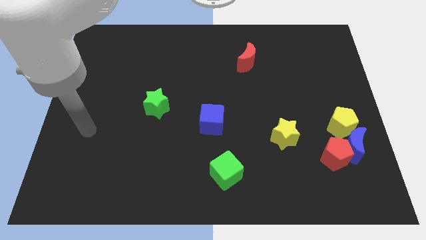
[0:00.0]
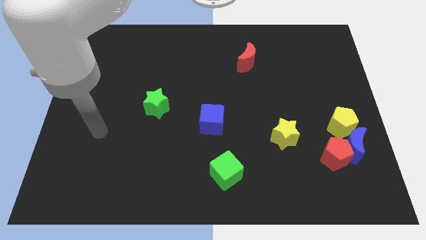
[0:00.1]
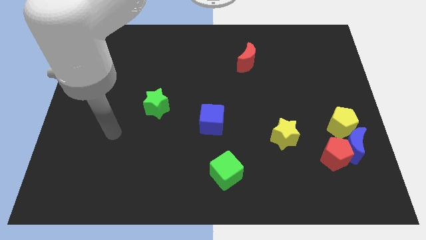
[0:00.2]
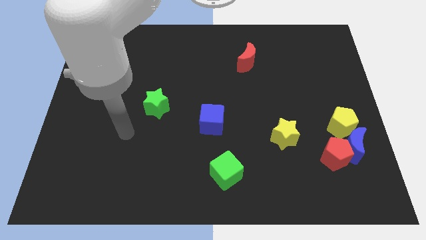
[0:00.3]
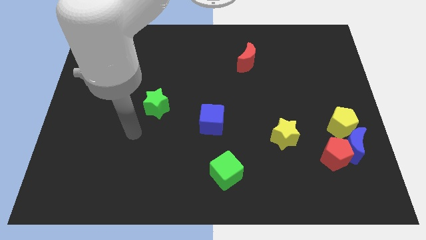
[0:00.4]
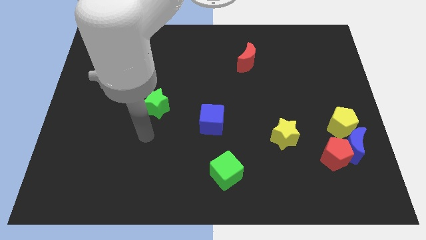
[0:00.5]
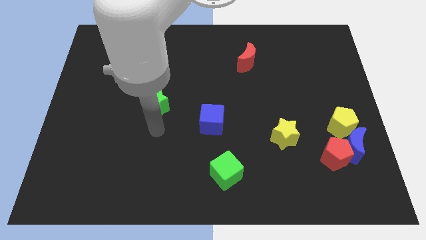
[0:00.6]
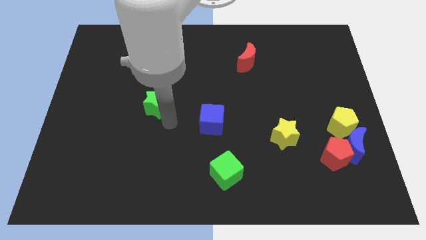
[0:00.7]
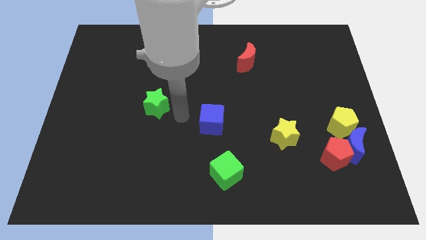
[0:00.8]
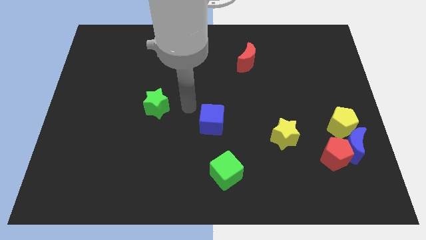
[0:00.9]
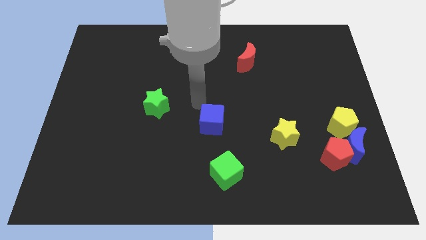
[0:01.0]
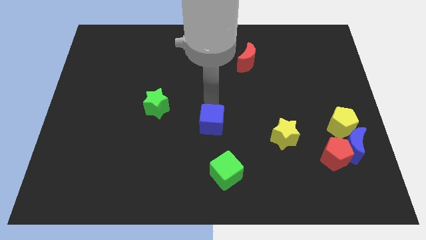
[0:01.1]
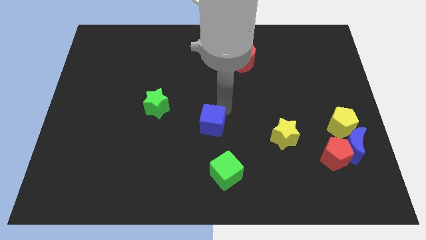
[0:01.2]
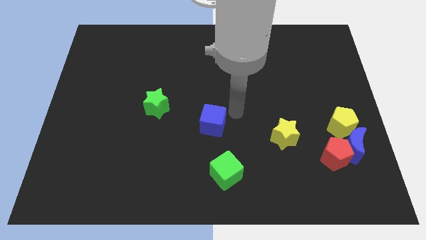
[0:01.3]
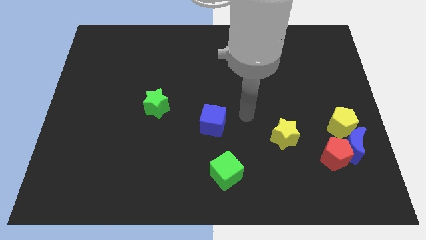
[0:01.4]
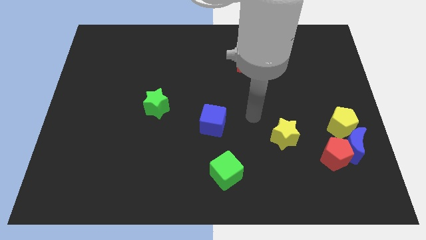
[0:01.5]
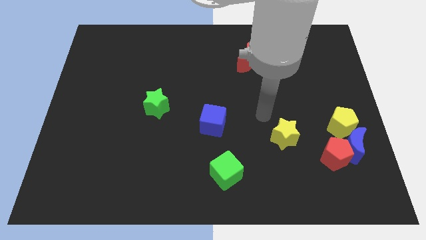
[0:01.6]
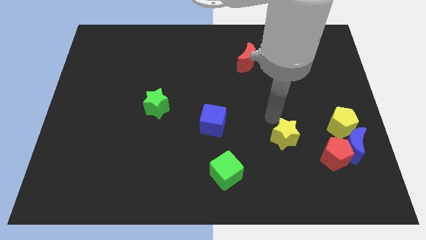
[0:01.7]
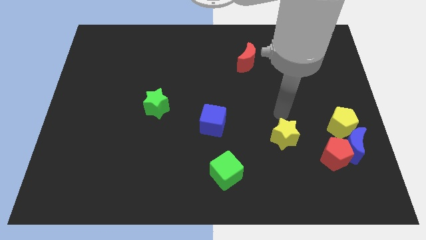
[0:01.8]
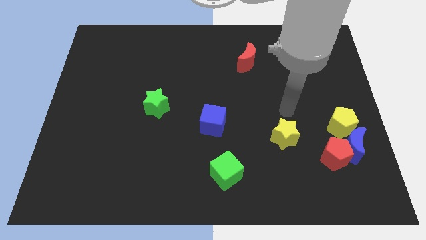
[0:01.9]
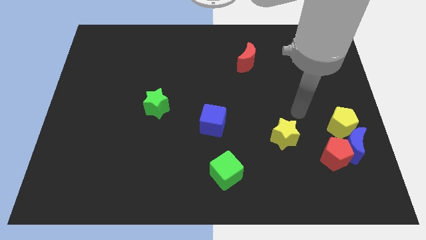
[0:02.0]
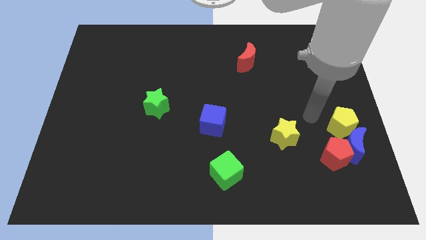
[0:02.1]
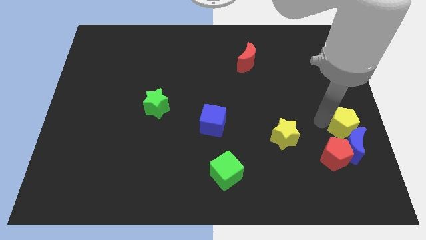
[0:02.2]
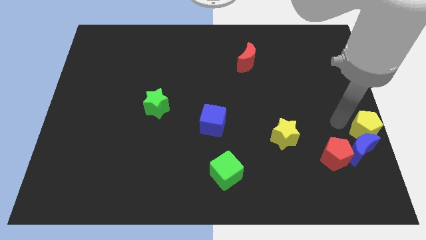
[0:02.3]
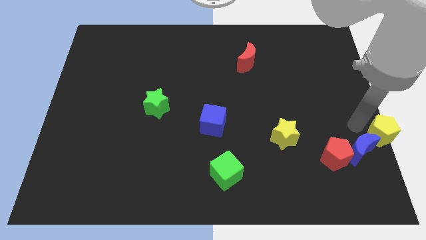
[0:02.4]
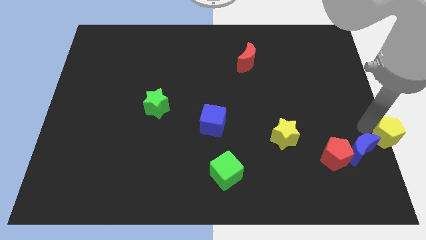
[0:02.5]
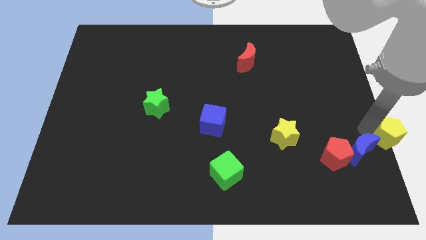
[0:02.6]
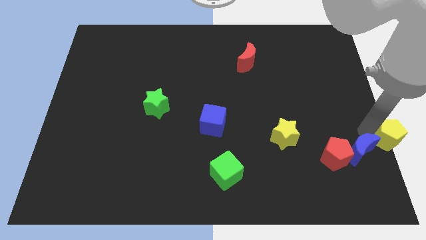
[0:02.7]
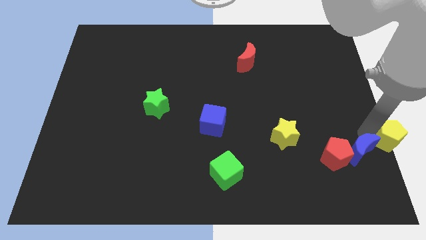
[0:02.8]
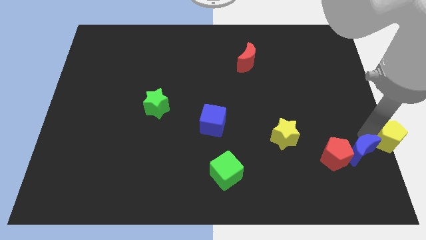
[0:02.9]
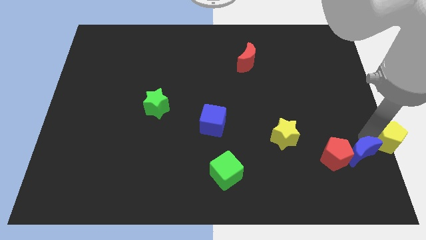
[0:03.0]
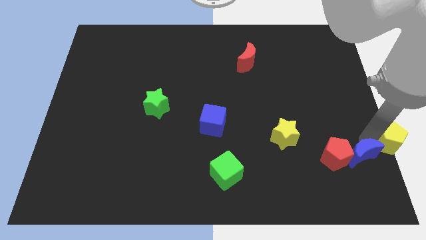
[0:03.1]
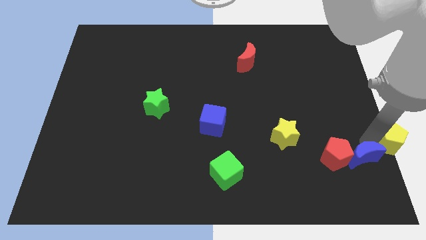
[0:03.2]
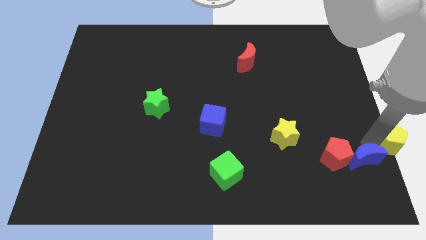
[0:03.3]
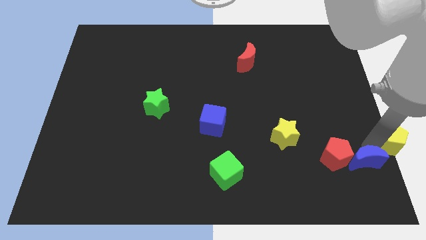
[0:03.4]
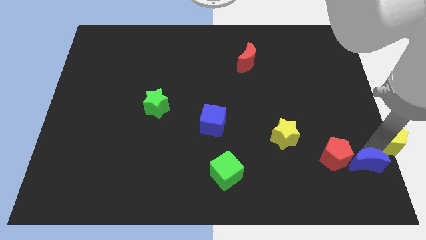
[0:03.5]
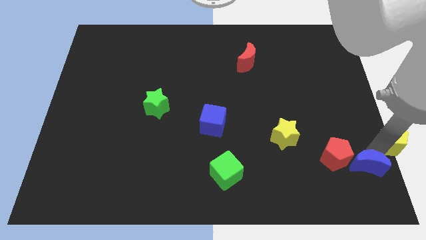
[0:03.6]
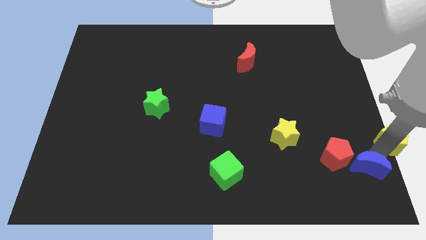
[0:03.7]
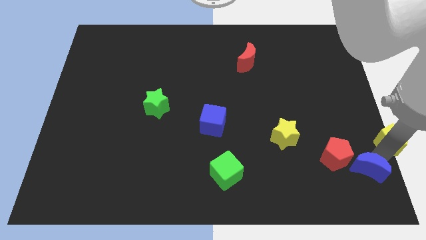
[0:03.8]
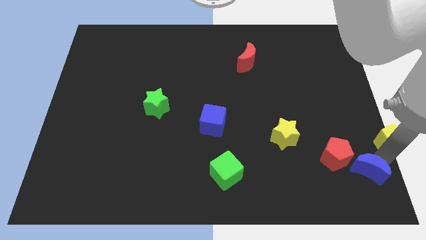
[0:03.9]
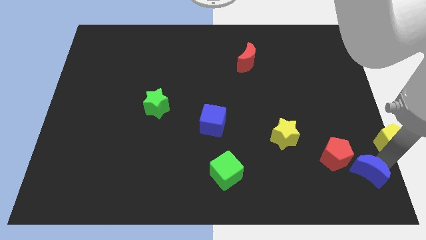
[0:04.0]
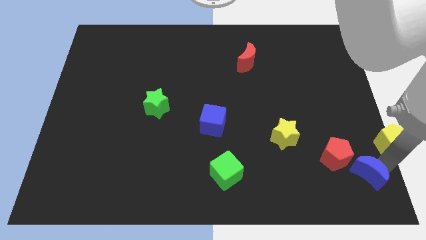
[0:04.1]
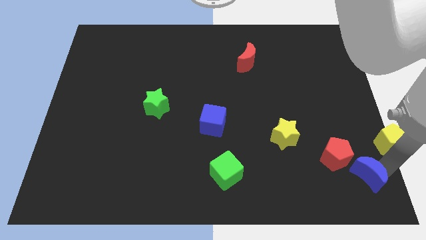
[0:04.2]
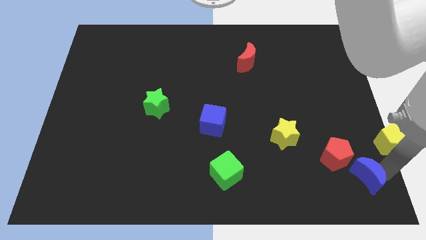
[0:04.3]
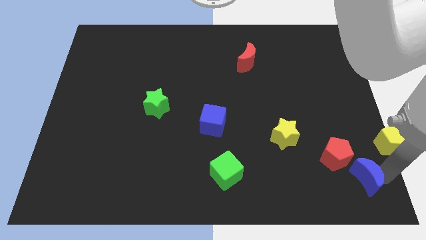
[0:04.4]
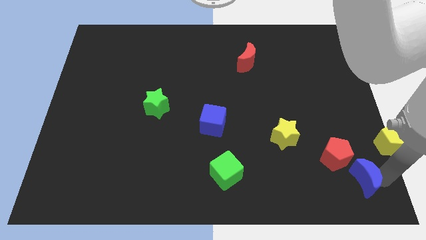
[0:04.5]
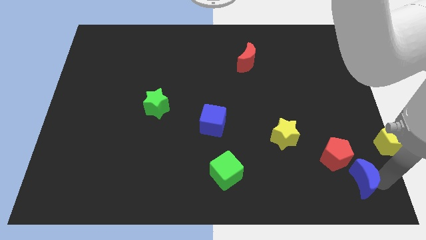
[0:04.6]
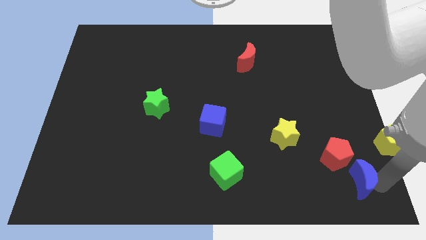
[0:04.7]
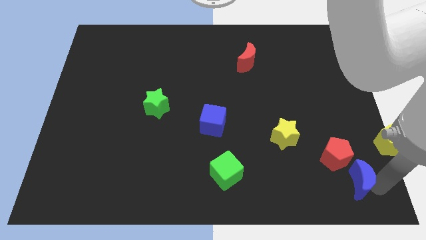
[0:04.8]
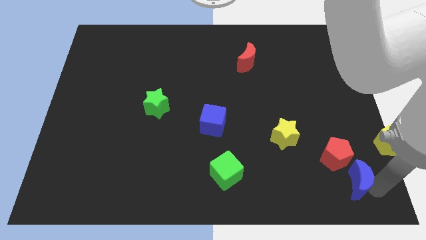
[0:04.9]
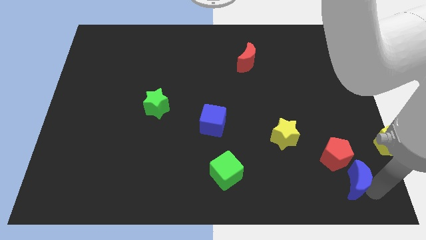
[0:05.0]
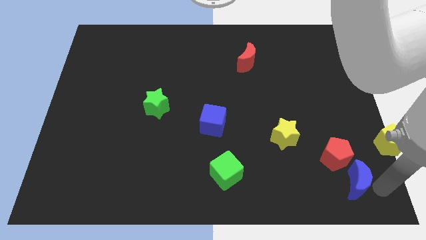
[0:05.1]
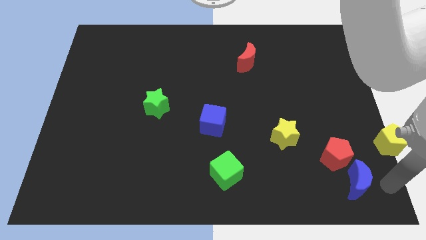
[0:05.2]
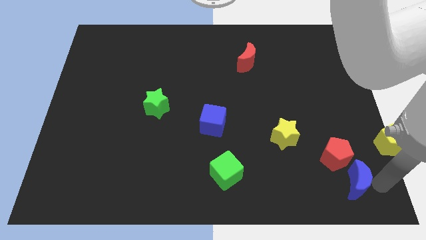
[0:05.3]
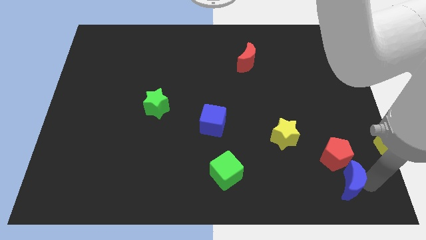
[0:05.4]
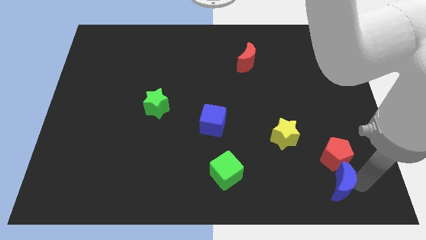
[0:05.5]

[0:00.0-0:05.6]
push the blue moon to the bottom left side of the red pentagon
